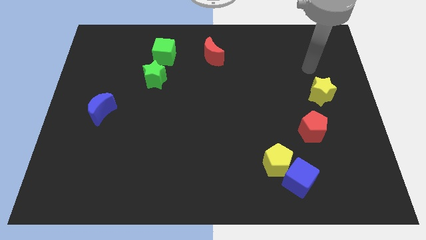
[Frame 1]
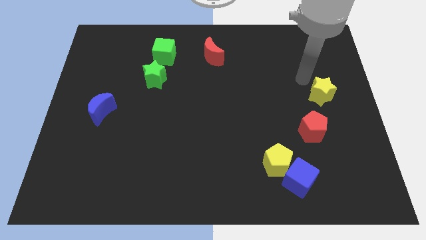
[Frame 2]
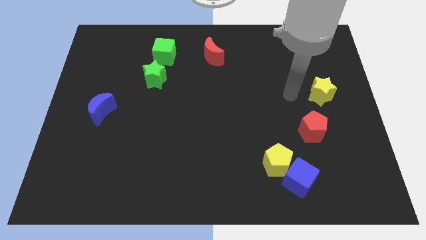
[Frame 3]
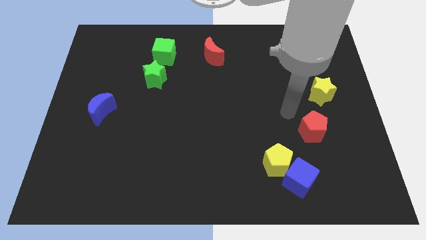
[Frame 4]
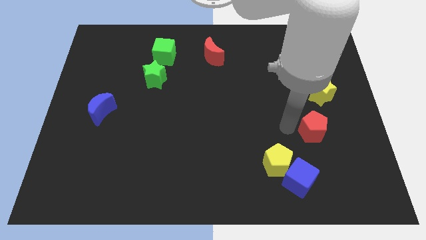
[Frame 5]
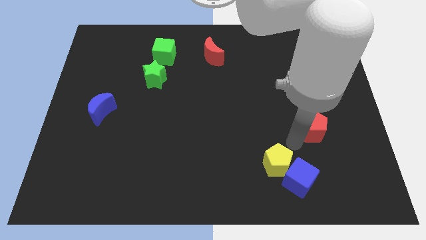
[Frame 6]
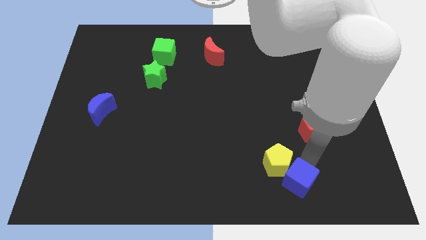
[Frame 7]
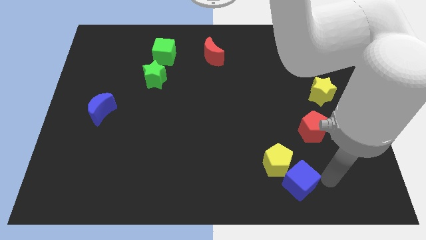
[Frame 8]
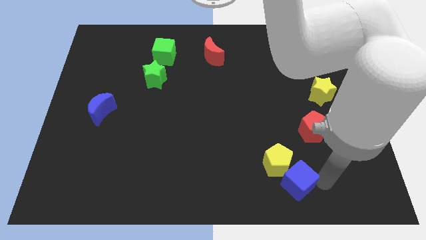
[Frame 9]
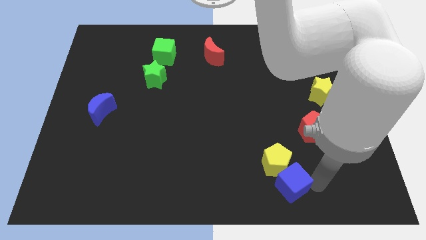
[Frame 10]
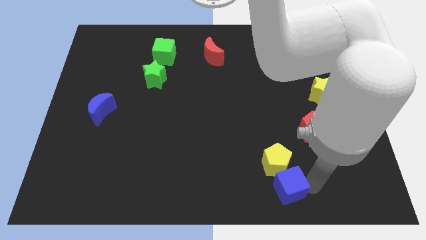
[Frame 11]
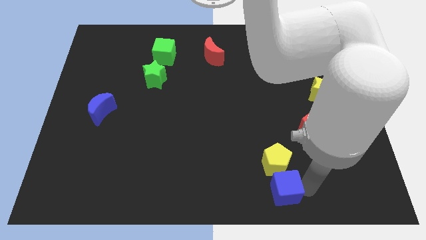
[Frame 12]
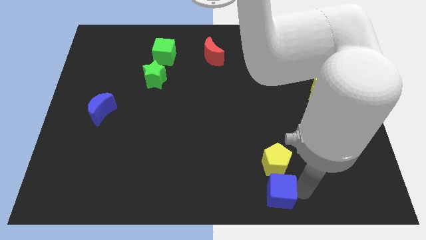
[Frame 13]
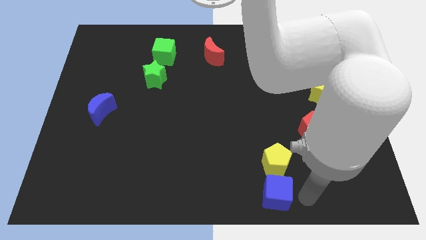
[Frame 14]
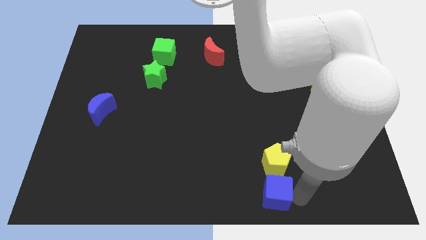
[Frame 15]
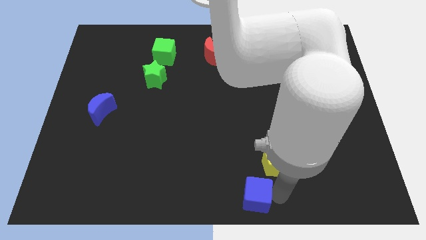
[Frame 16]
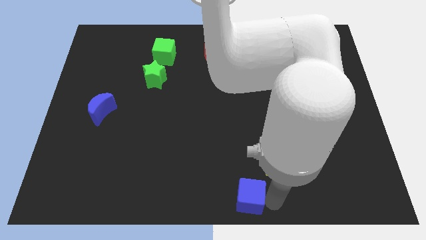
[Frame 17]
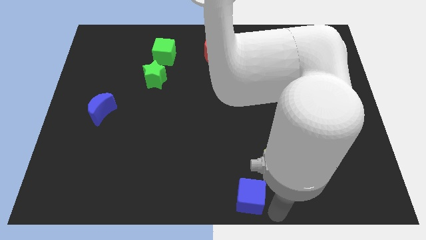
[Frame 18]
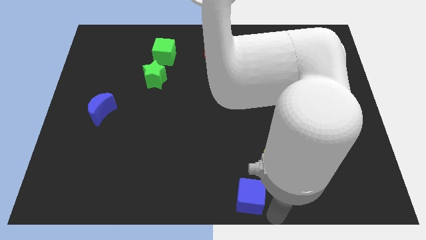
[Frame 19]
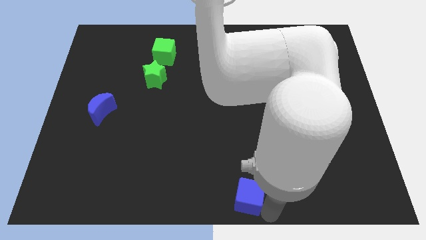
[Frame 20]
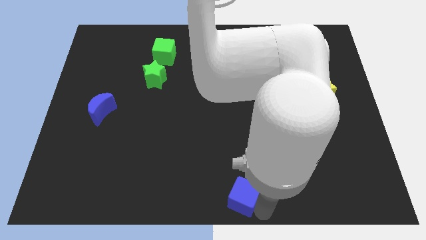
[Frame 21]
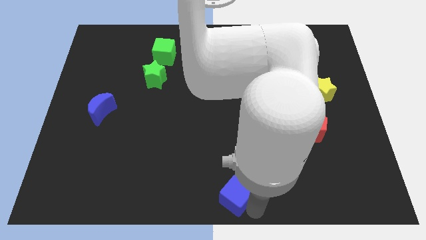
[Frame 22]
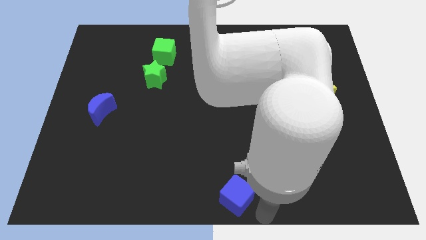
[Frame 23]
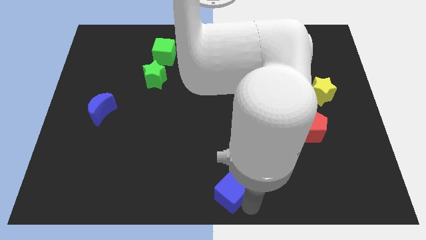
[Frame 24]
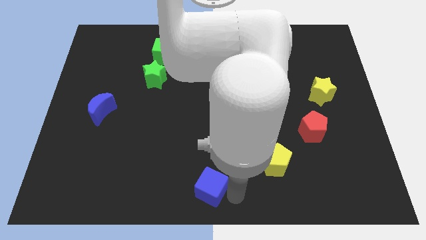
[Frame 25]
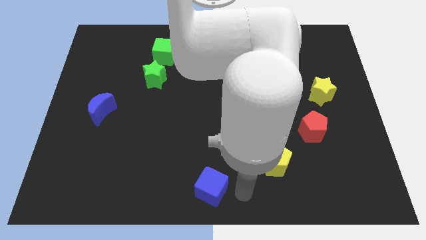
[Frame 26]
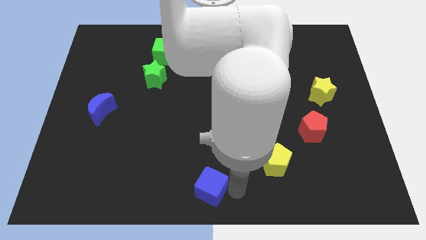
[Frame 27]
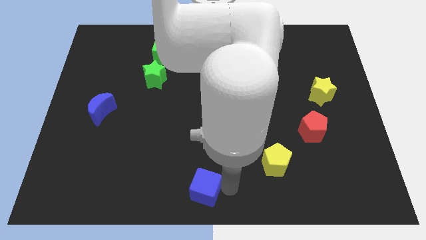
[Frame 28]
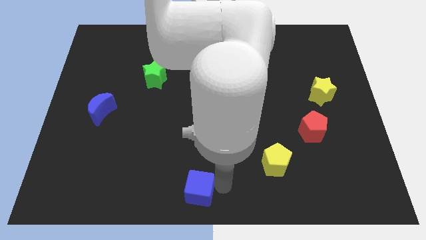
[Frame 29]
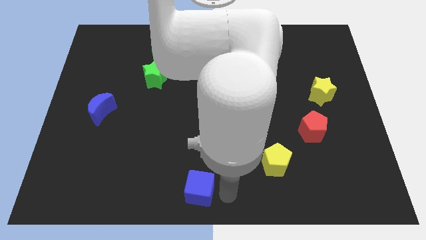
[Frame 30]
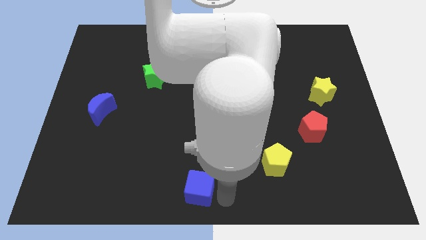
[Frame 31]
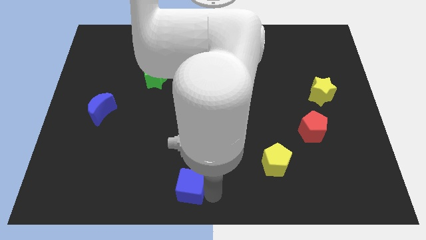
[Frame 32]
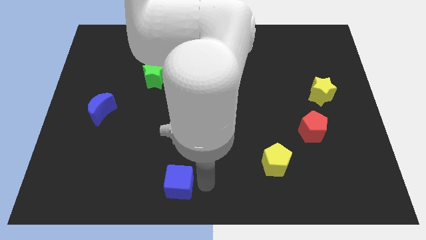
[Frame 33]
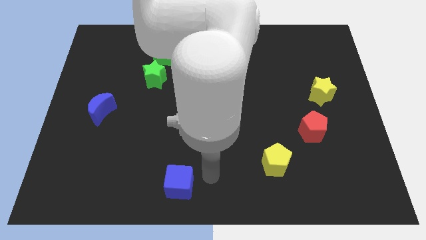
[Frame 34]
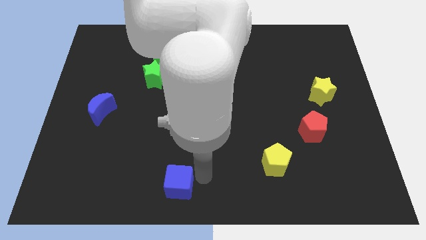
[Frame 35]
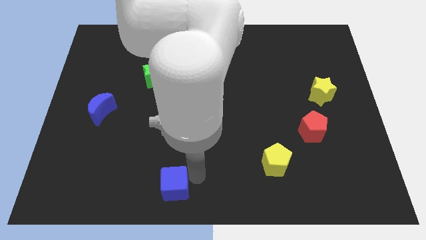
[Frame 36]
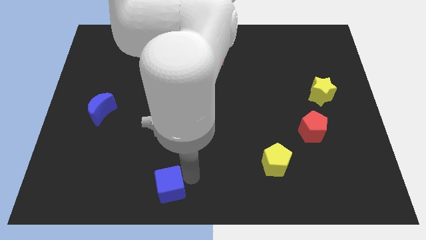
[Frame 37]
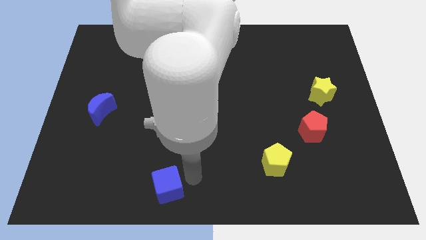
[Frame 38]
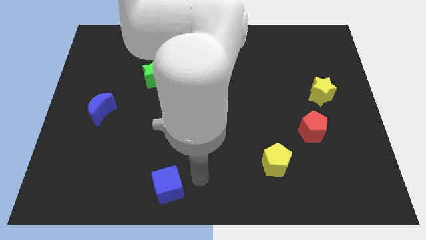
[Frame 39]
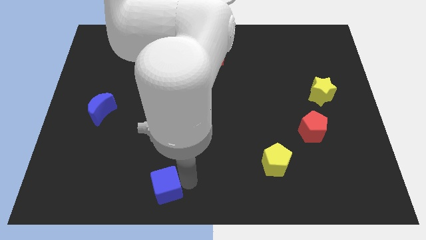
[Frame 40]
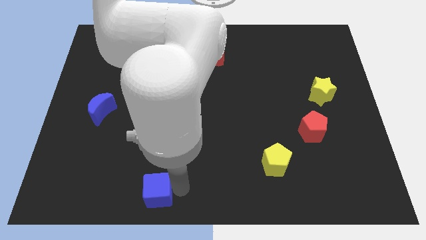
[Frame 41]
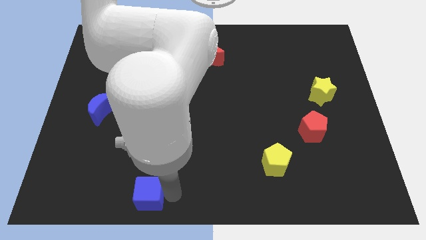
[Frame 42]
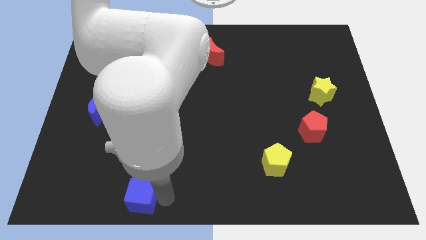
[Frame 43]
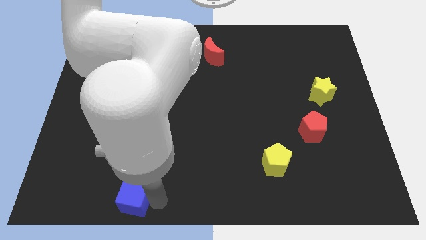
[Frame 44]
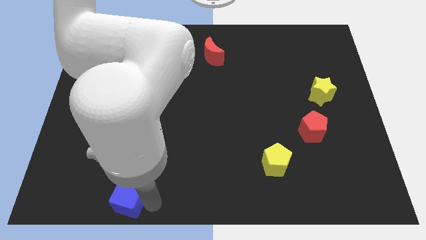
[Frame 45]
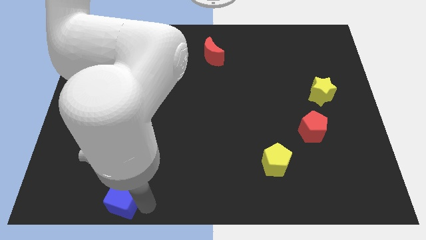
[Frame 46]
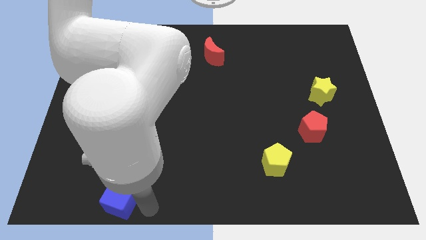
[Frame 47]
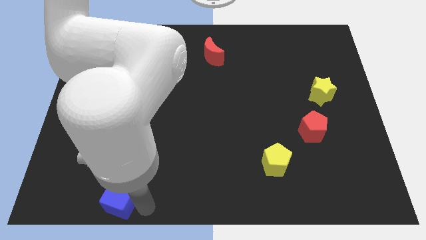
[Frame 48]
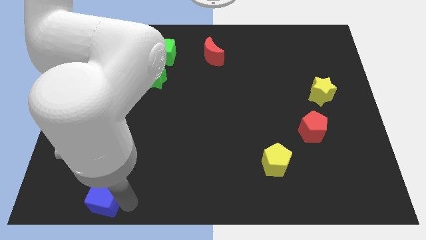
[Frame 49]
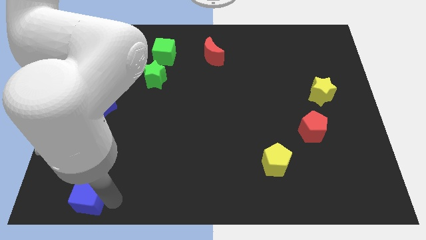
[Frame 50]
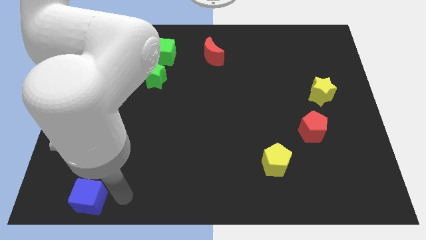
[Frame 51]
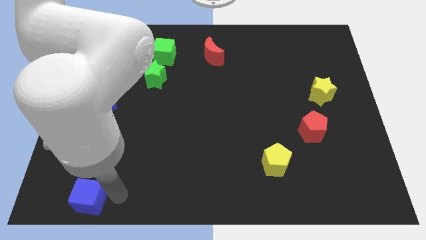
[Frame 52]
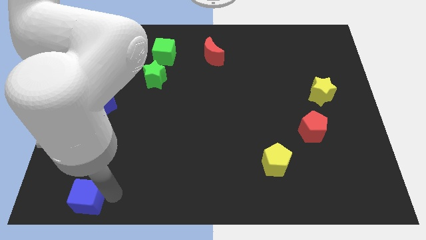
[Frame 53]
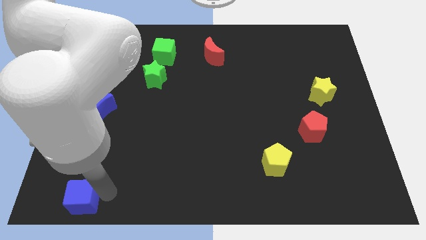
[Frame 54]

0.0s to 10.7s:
push the blue cube to the bottom left

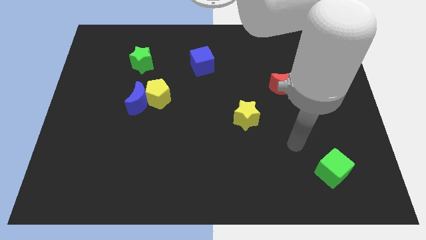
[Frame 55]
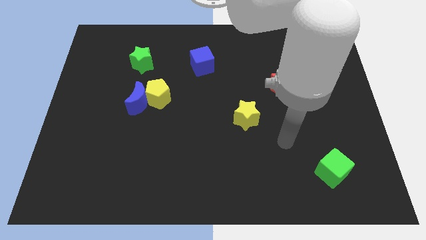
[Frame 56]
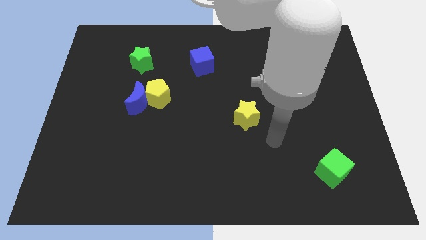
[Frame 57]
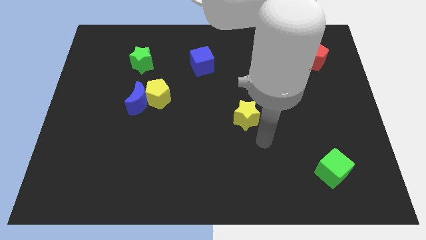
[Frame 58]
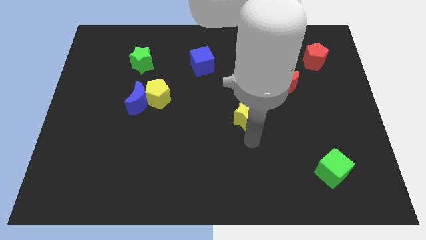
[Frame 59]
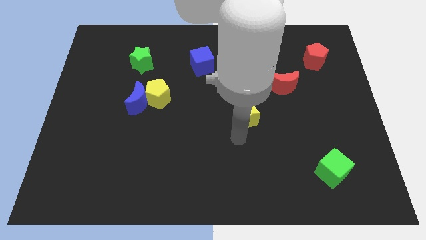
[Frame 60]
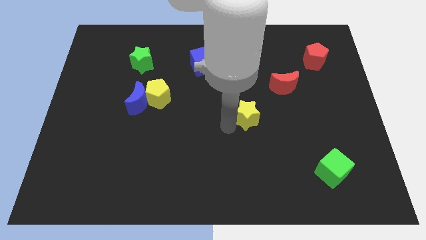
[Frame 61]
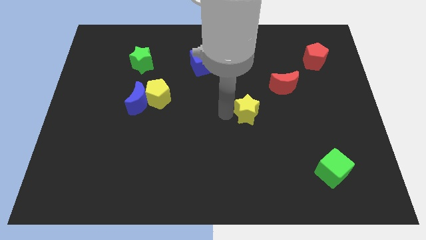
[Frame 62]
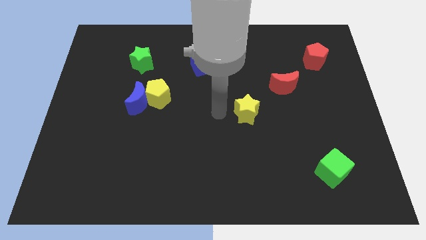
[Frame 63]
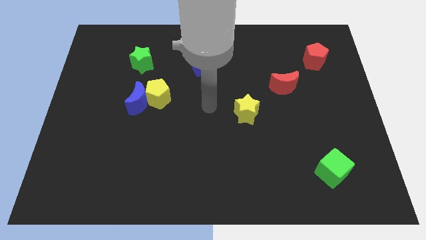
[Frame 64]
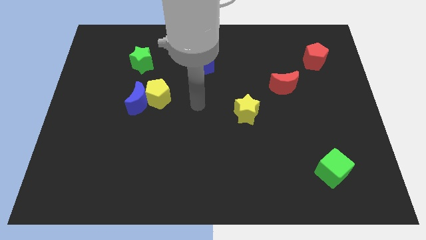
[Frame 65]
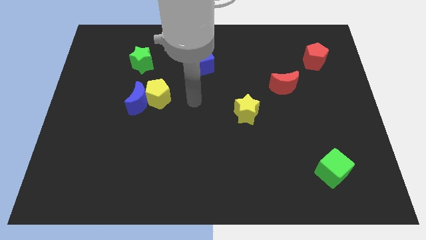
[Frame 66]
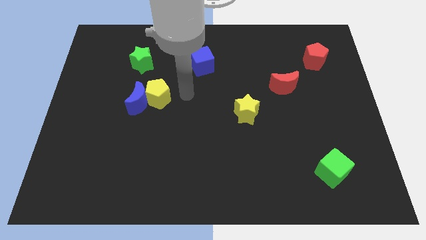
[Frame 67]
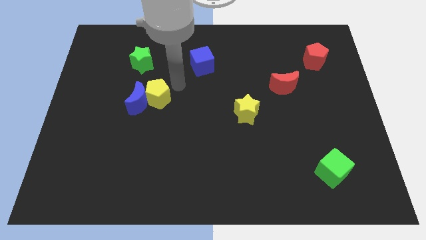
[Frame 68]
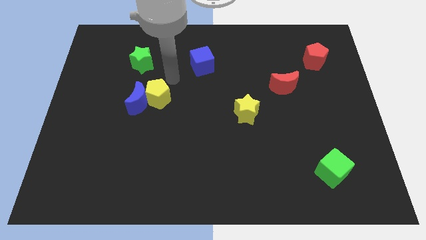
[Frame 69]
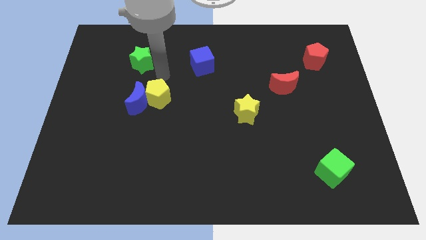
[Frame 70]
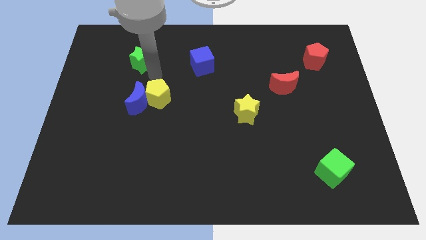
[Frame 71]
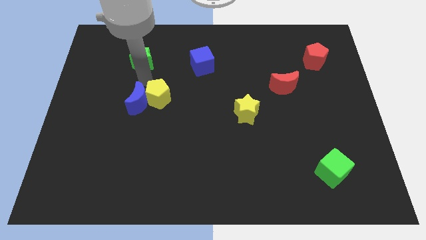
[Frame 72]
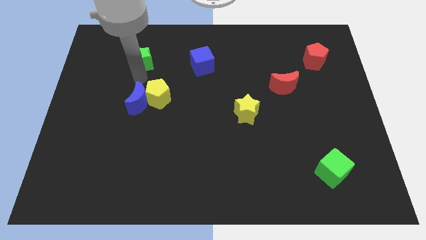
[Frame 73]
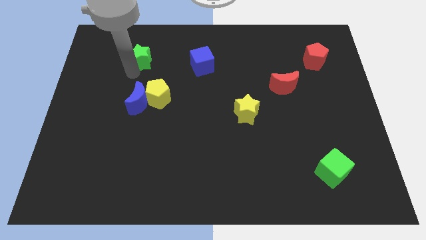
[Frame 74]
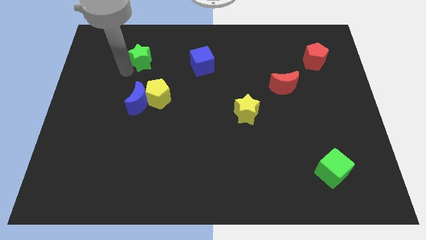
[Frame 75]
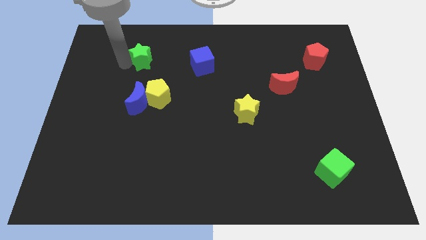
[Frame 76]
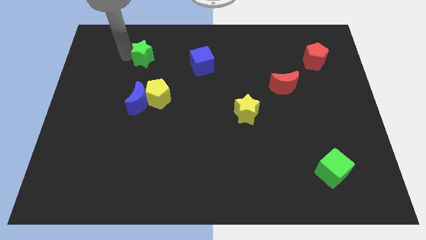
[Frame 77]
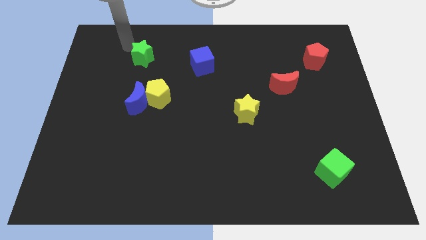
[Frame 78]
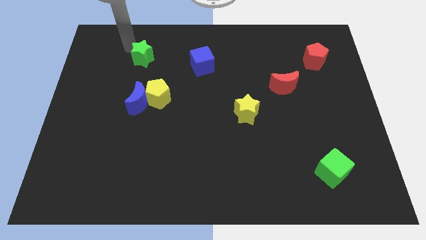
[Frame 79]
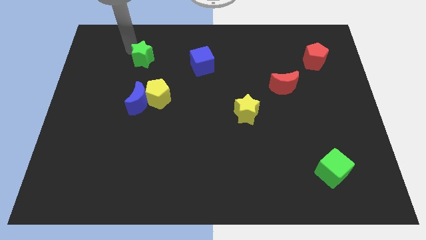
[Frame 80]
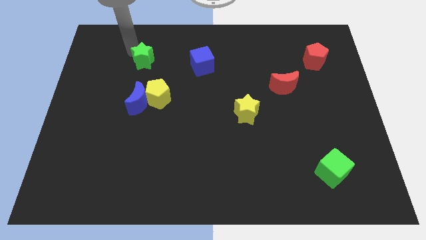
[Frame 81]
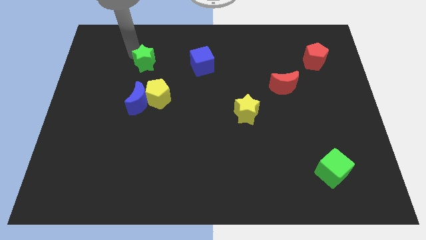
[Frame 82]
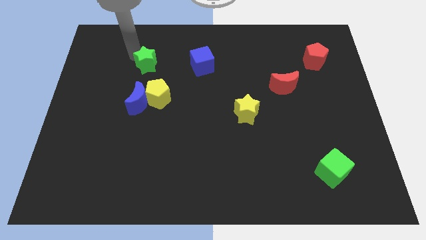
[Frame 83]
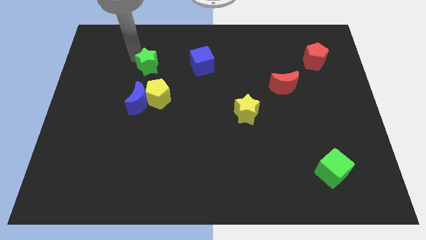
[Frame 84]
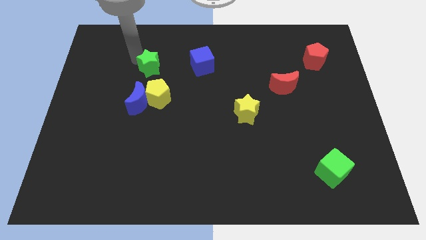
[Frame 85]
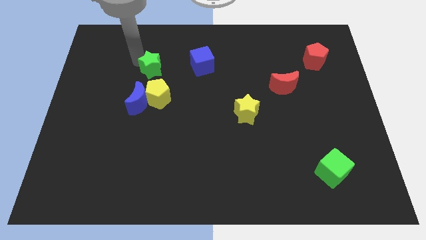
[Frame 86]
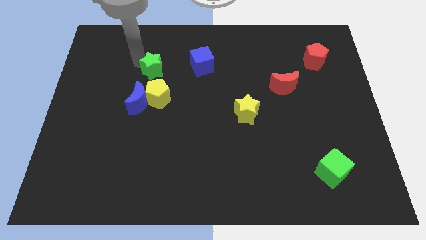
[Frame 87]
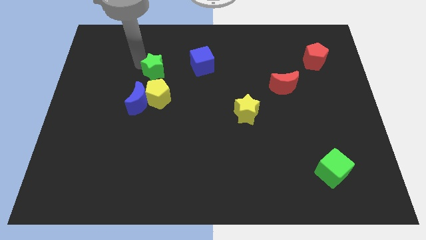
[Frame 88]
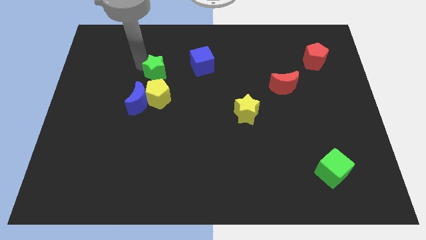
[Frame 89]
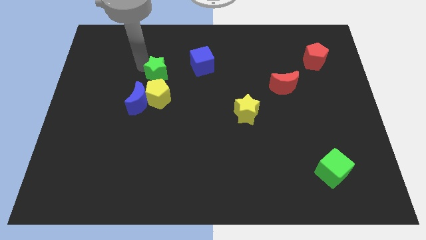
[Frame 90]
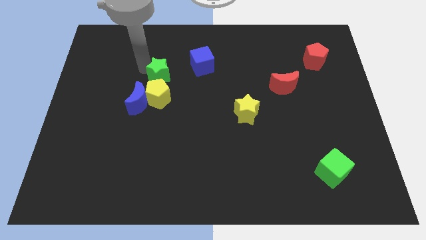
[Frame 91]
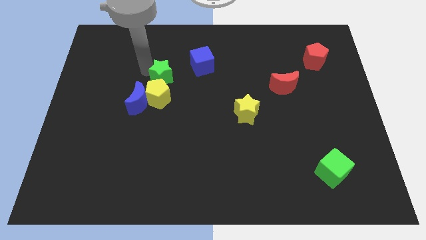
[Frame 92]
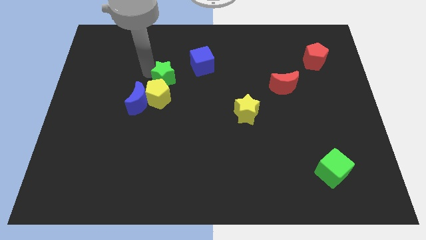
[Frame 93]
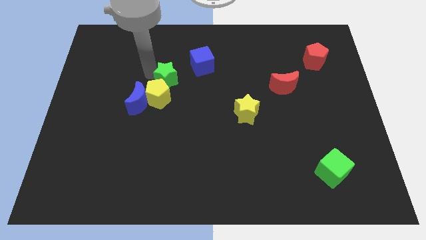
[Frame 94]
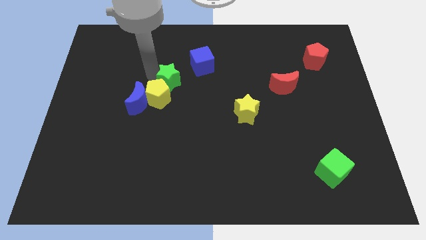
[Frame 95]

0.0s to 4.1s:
push the green star to the center of the board
